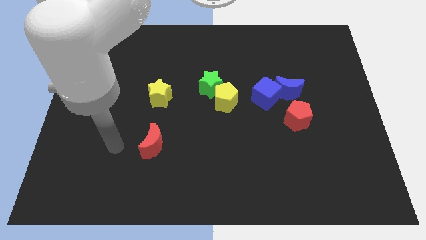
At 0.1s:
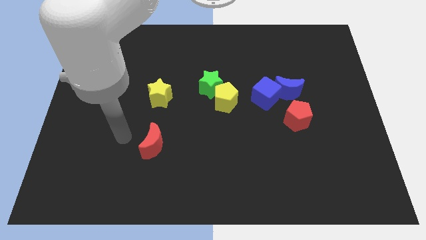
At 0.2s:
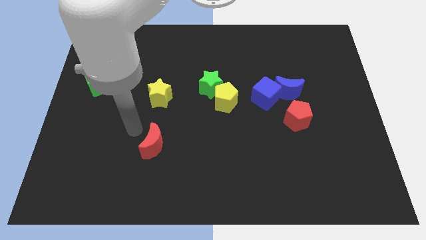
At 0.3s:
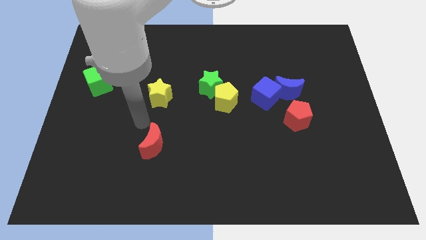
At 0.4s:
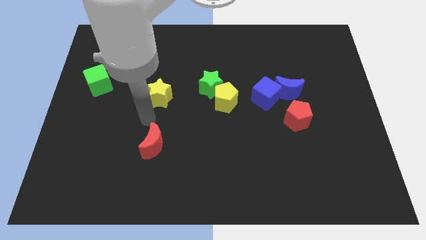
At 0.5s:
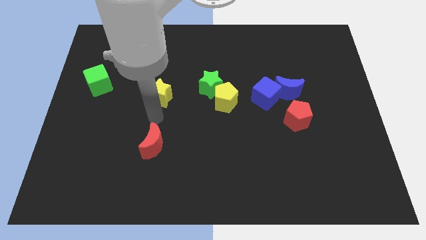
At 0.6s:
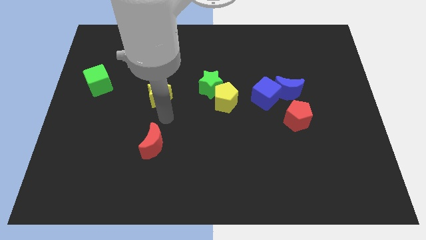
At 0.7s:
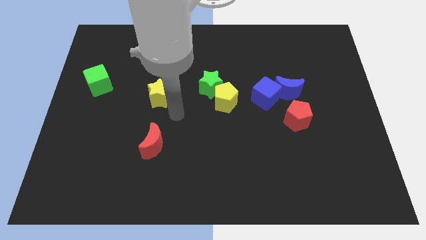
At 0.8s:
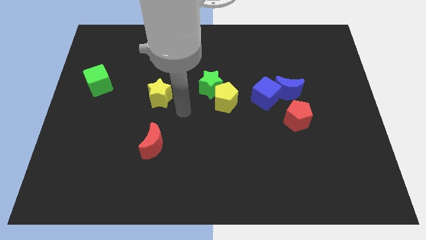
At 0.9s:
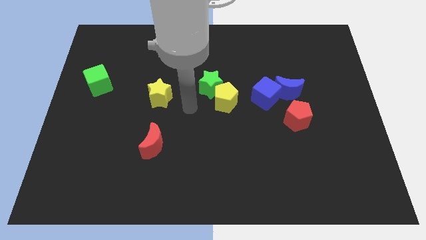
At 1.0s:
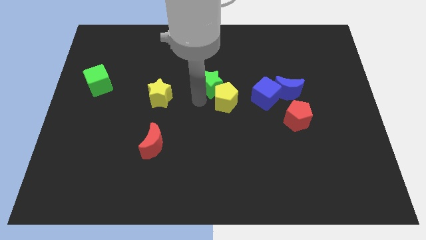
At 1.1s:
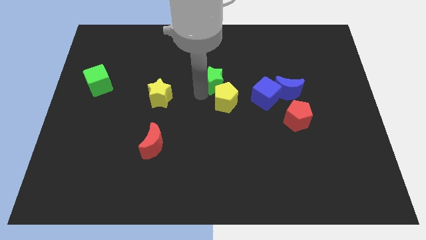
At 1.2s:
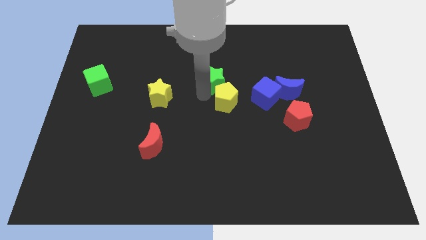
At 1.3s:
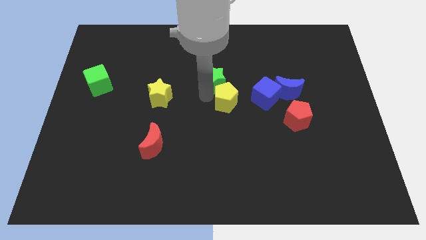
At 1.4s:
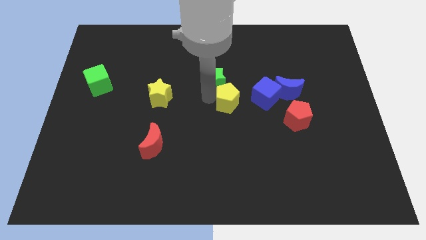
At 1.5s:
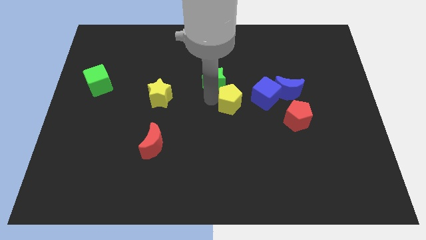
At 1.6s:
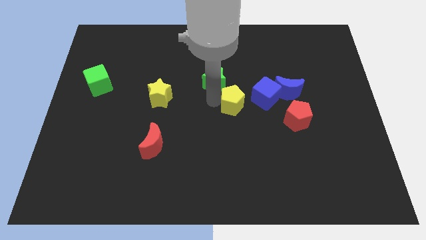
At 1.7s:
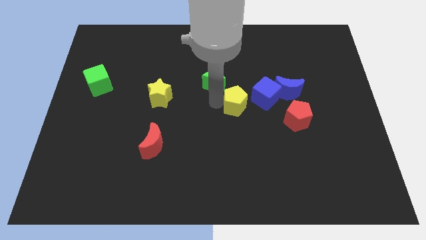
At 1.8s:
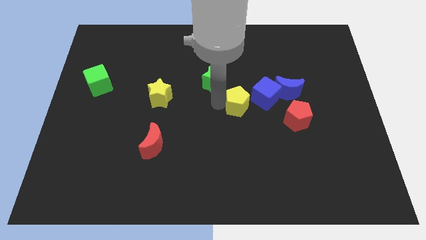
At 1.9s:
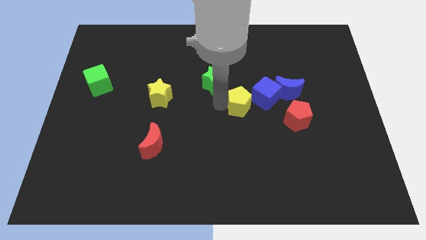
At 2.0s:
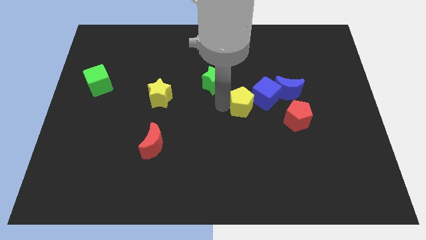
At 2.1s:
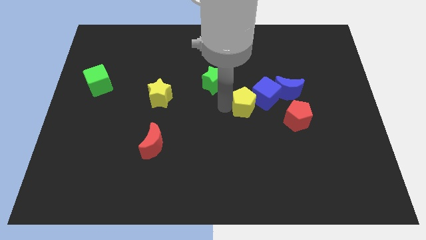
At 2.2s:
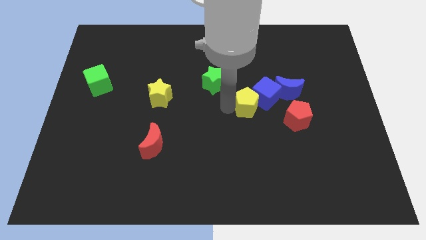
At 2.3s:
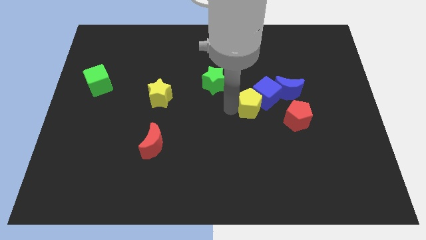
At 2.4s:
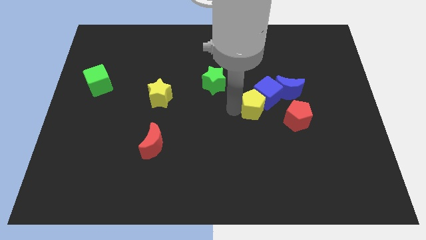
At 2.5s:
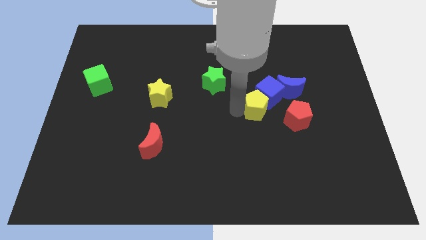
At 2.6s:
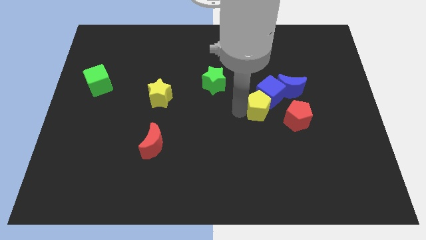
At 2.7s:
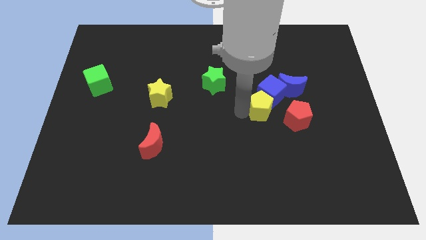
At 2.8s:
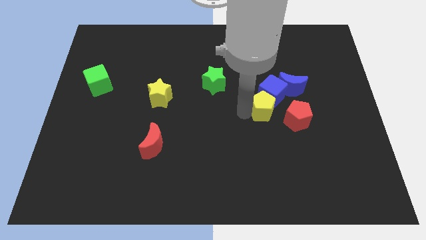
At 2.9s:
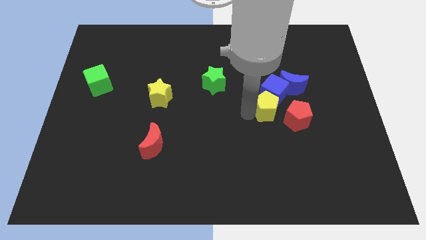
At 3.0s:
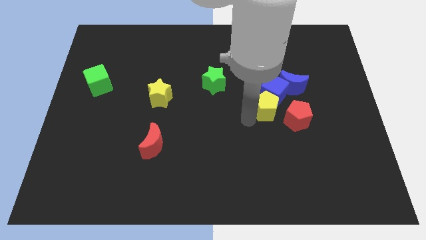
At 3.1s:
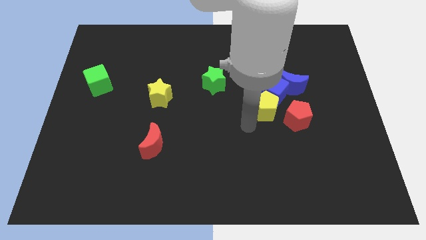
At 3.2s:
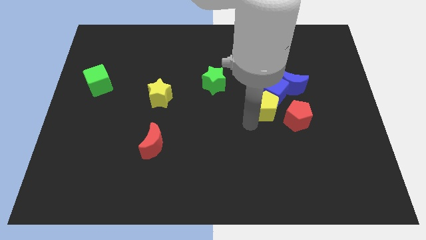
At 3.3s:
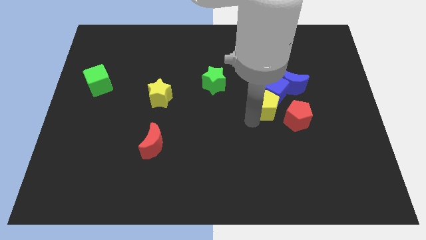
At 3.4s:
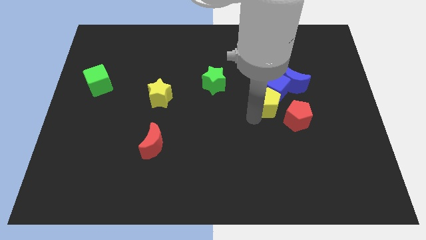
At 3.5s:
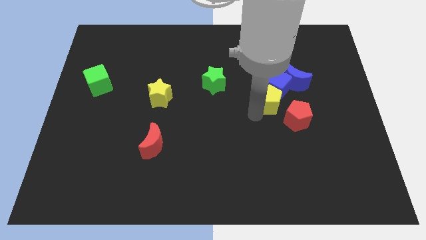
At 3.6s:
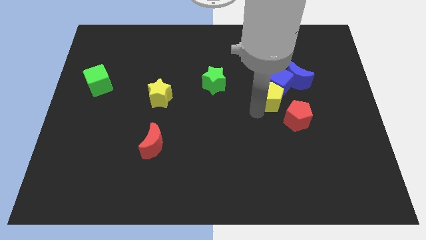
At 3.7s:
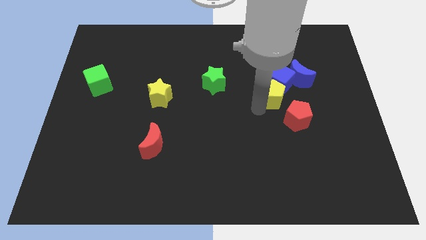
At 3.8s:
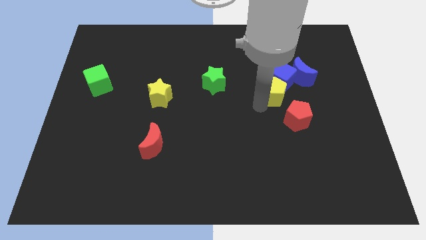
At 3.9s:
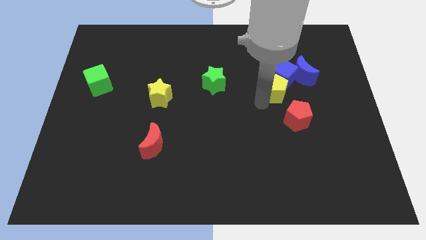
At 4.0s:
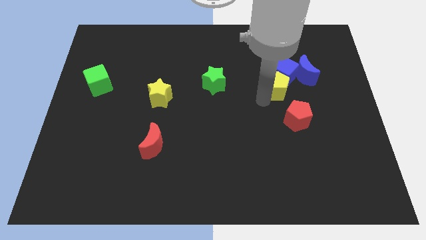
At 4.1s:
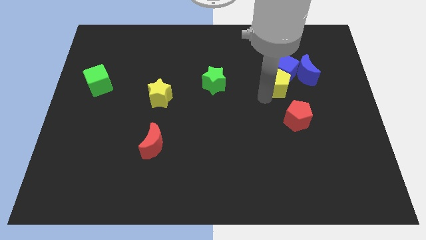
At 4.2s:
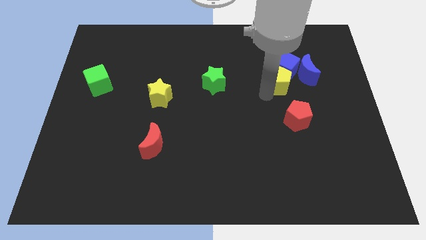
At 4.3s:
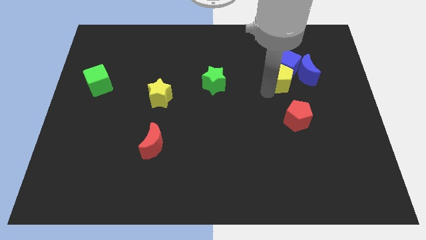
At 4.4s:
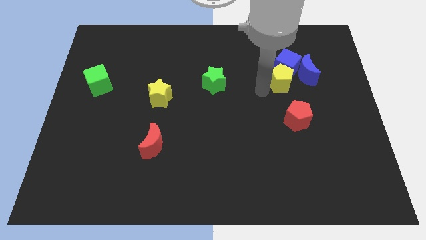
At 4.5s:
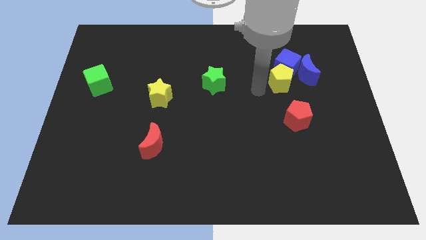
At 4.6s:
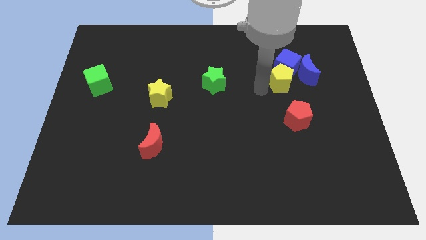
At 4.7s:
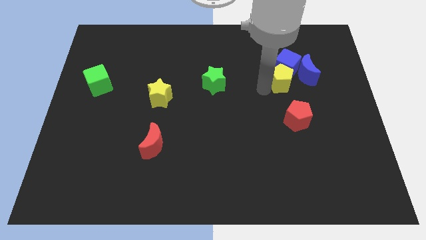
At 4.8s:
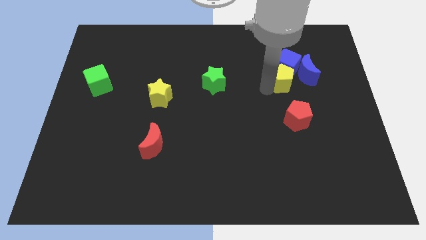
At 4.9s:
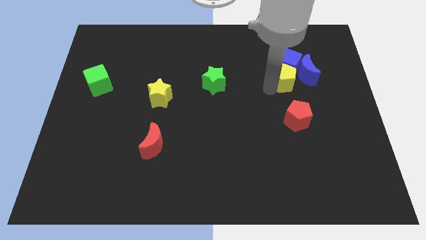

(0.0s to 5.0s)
move the yellow pentagon towards the blue moon

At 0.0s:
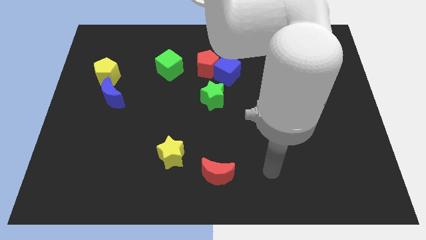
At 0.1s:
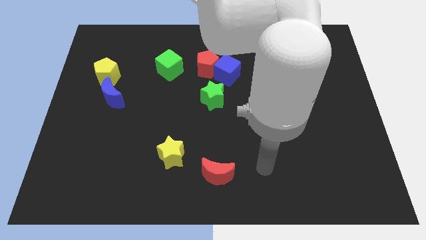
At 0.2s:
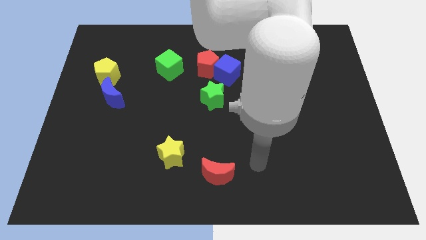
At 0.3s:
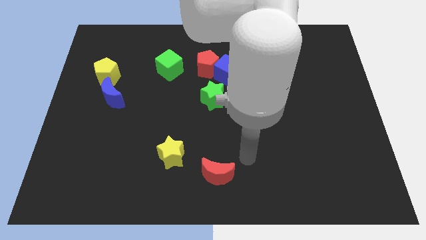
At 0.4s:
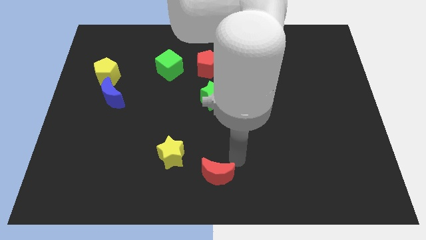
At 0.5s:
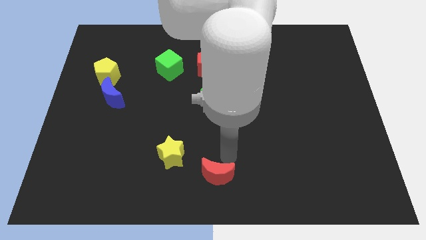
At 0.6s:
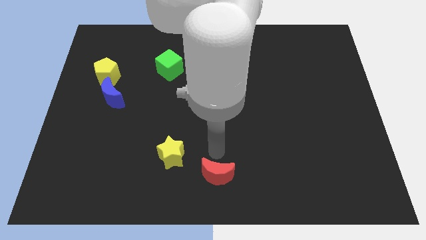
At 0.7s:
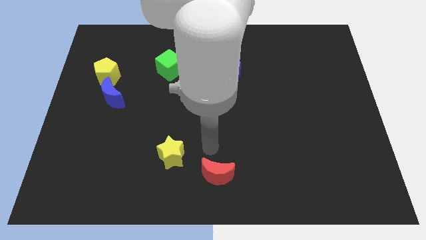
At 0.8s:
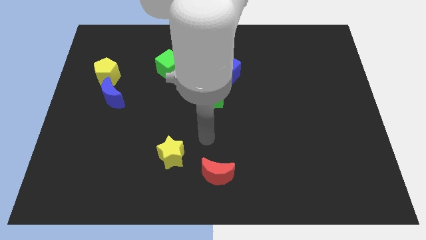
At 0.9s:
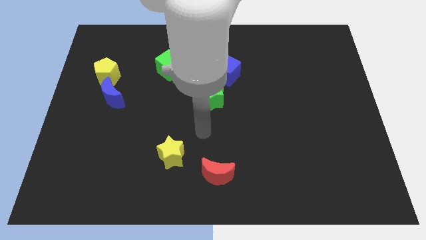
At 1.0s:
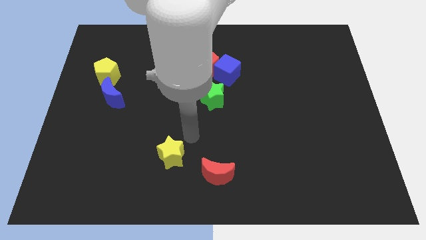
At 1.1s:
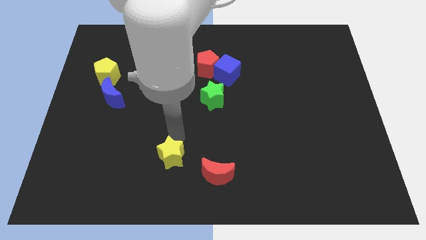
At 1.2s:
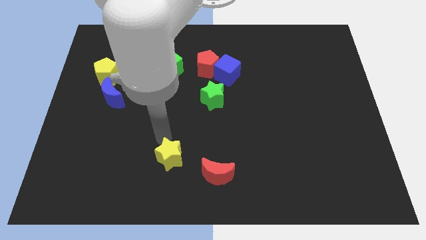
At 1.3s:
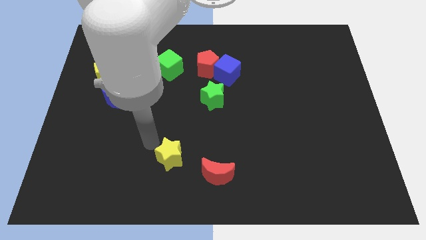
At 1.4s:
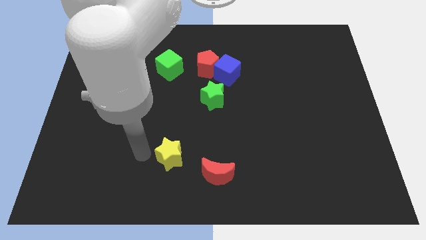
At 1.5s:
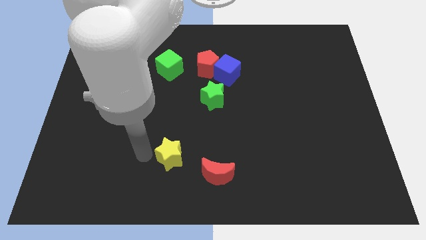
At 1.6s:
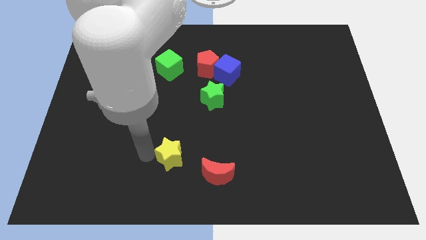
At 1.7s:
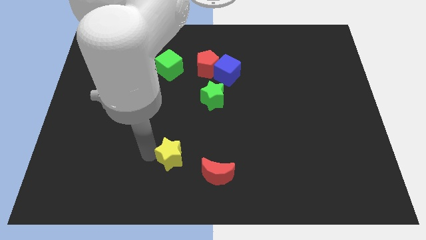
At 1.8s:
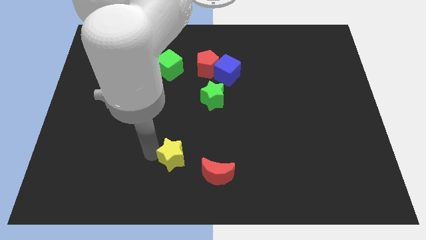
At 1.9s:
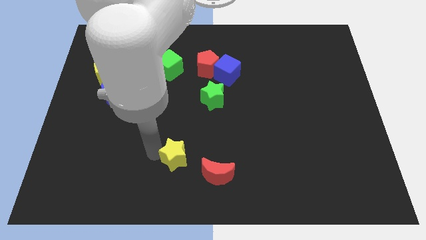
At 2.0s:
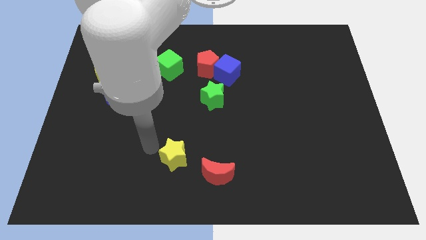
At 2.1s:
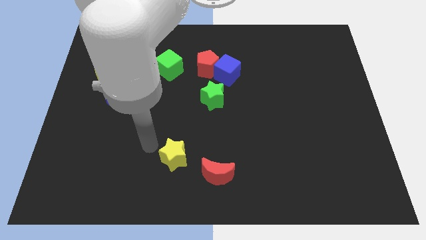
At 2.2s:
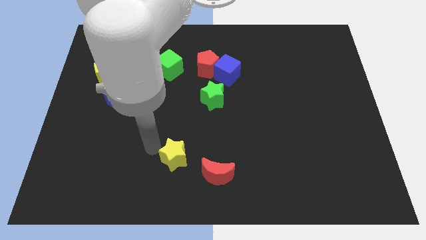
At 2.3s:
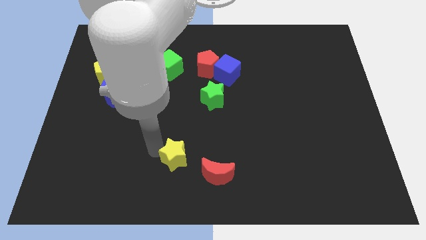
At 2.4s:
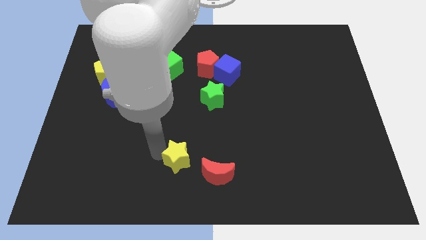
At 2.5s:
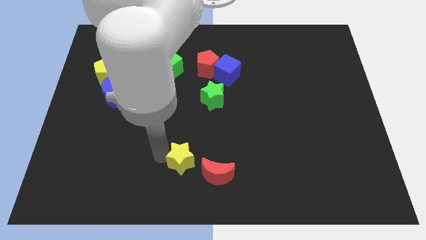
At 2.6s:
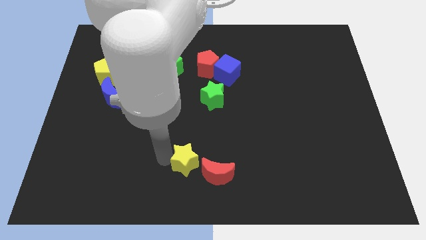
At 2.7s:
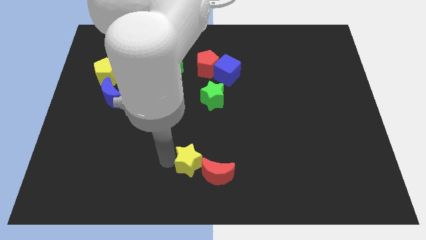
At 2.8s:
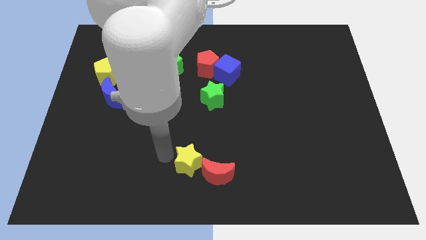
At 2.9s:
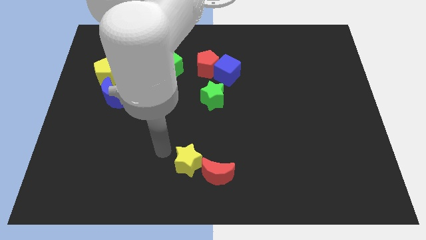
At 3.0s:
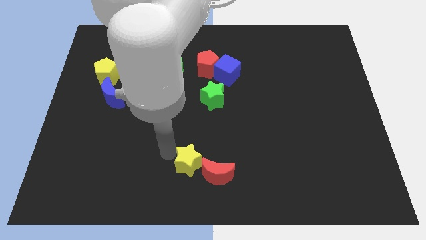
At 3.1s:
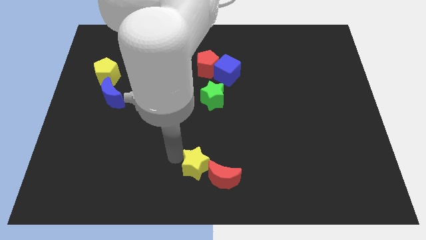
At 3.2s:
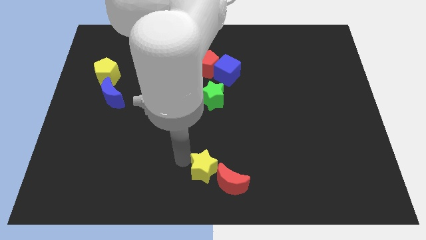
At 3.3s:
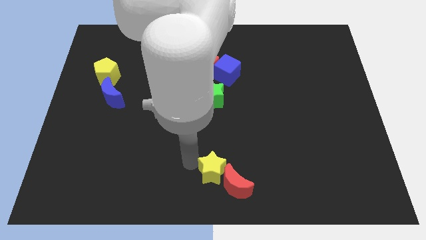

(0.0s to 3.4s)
push the yellow star next to the red moon
